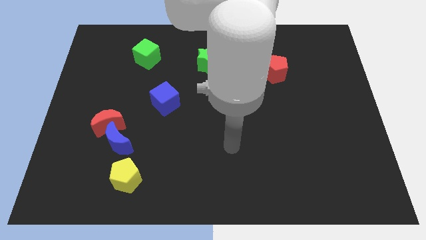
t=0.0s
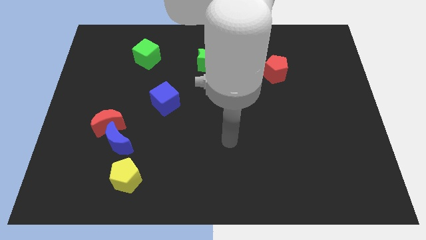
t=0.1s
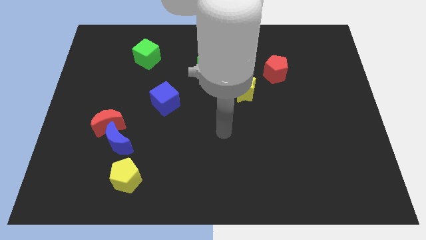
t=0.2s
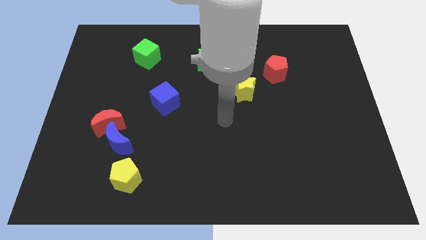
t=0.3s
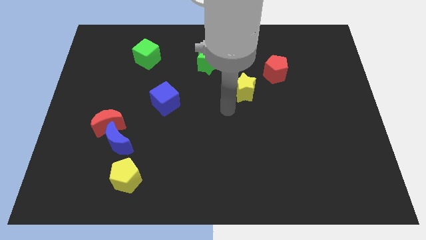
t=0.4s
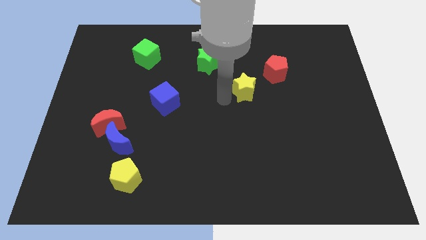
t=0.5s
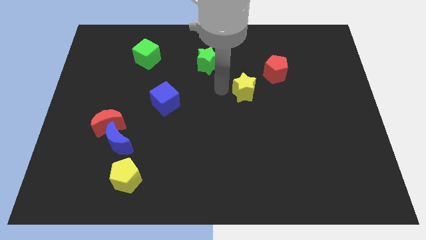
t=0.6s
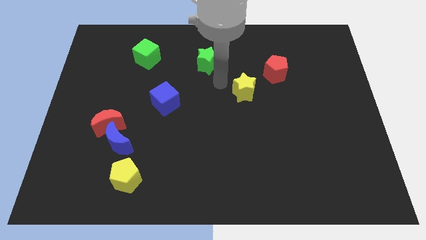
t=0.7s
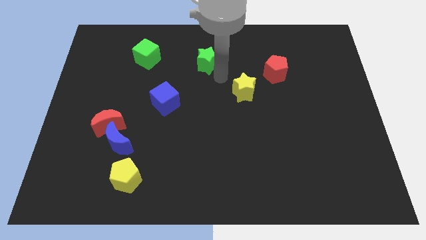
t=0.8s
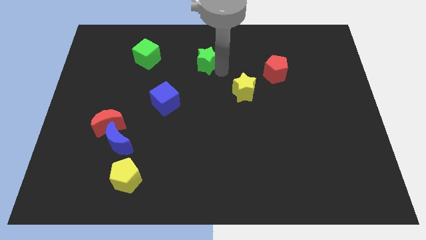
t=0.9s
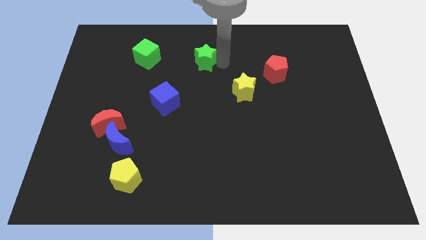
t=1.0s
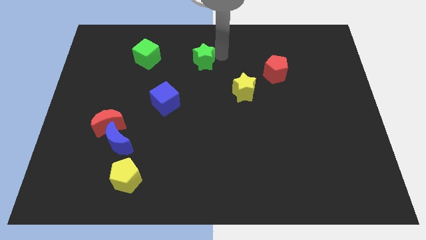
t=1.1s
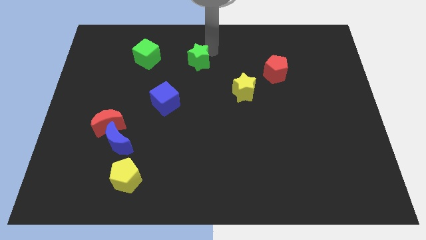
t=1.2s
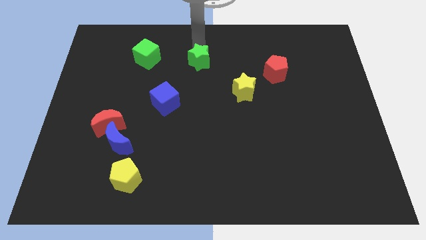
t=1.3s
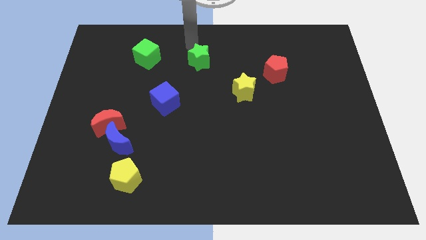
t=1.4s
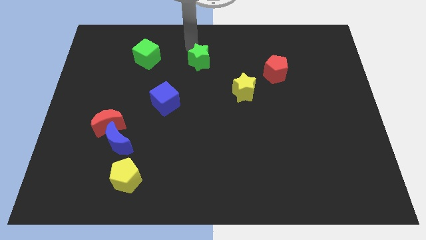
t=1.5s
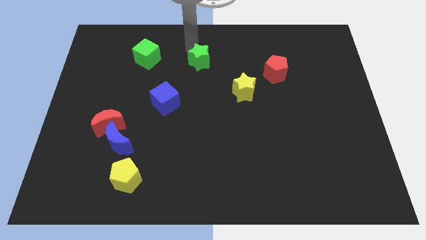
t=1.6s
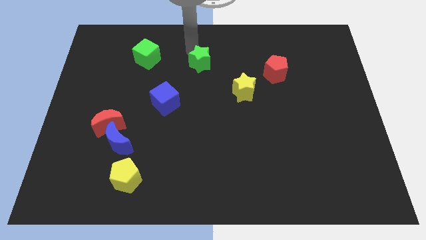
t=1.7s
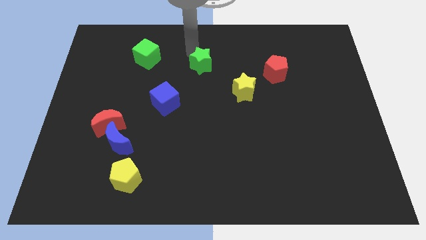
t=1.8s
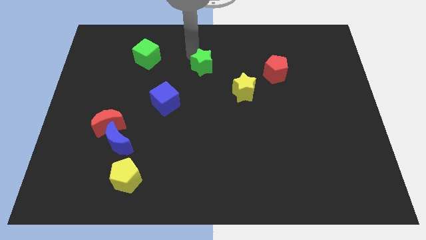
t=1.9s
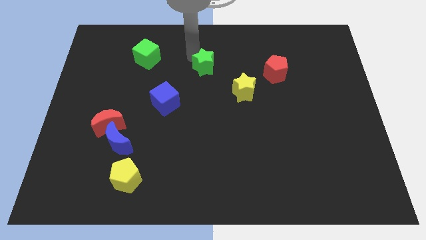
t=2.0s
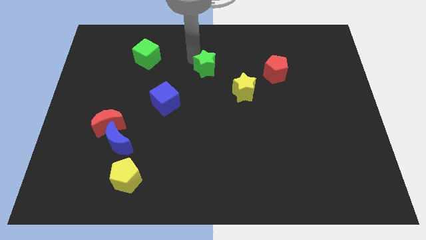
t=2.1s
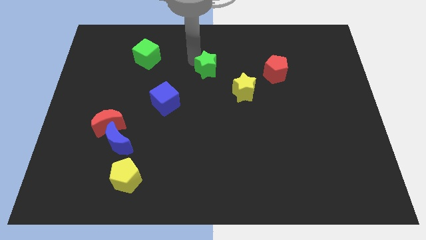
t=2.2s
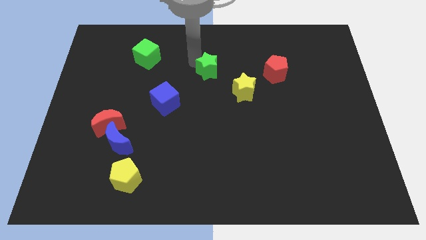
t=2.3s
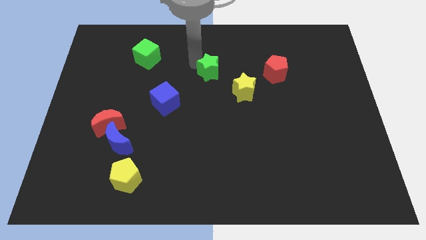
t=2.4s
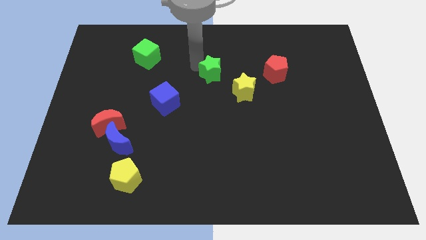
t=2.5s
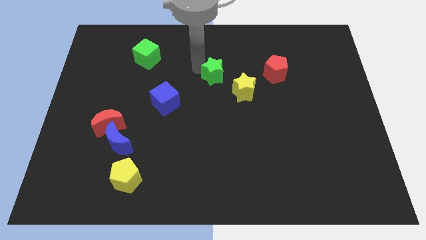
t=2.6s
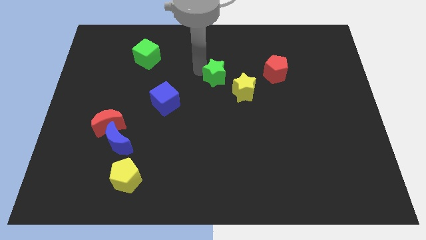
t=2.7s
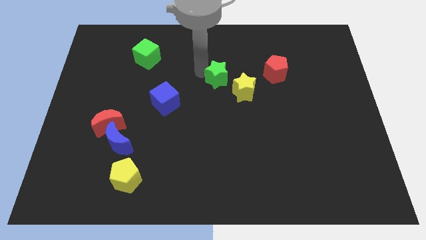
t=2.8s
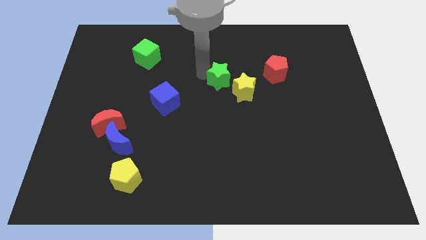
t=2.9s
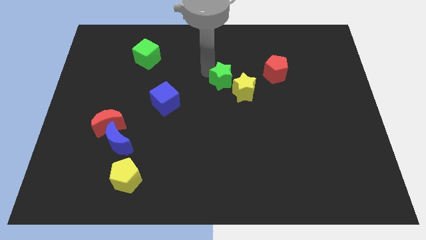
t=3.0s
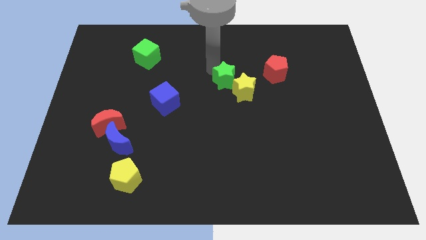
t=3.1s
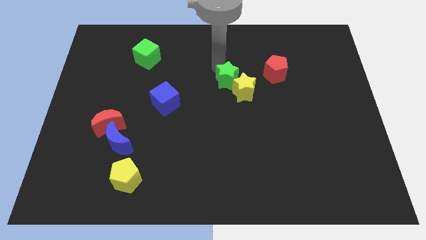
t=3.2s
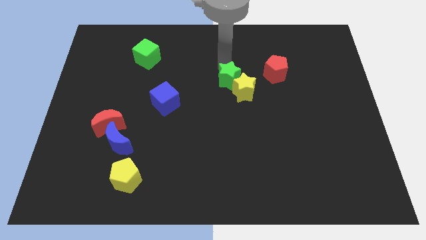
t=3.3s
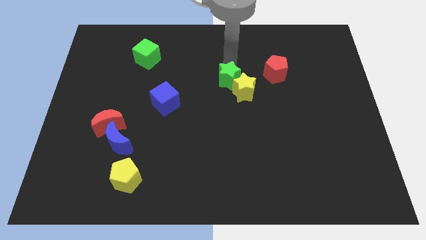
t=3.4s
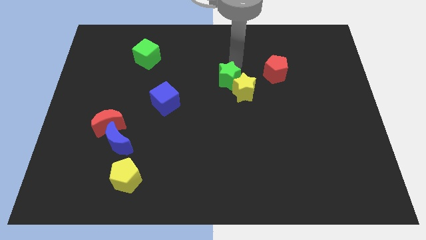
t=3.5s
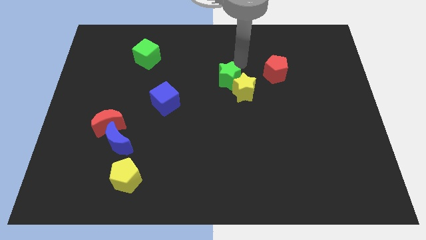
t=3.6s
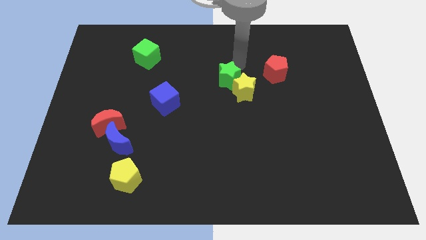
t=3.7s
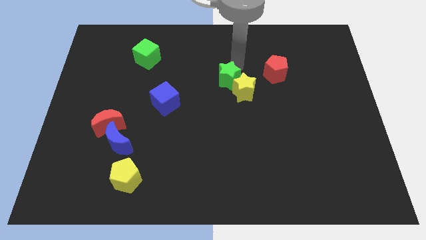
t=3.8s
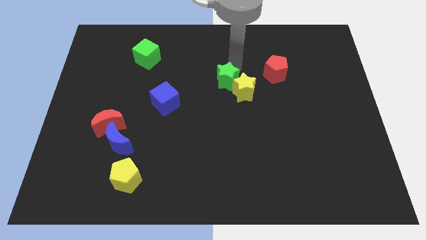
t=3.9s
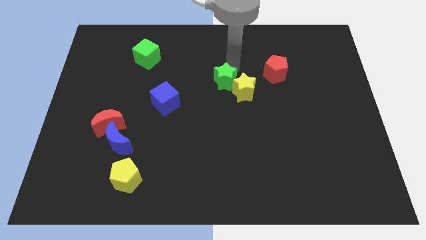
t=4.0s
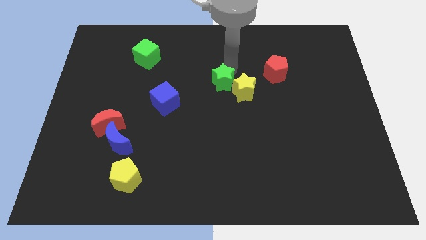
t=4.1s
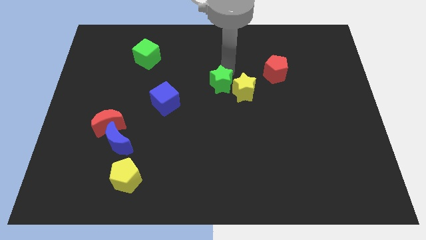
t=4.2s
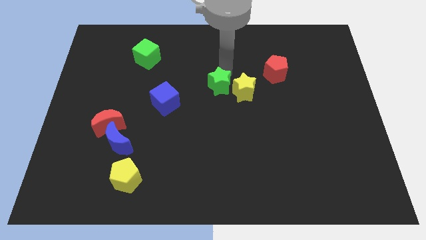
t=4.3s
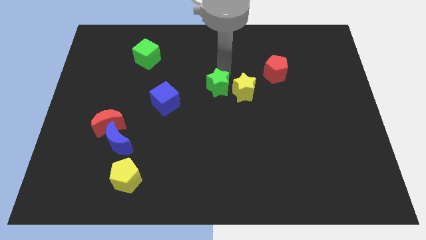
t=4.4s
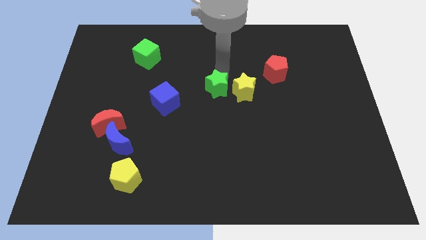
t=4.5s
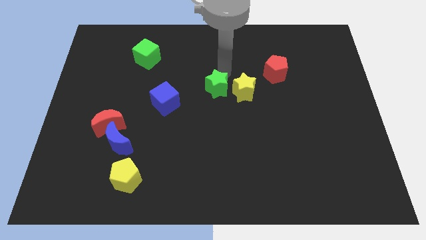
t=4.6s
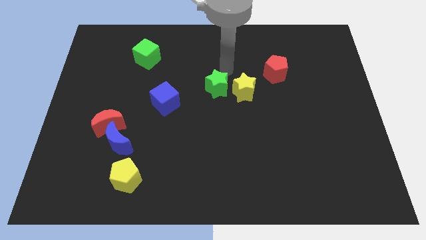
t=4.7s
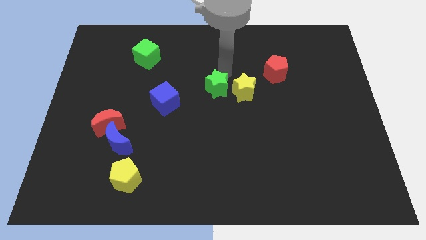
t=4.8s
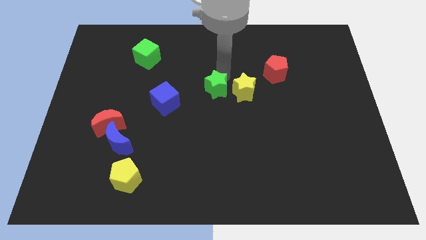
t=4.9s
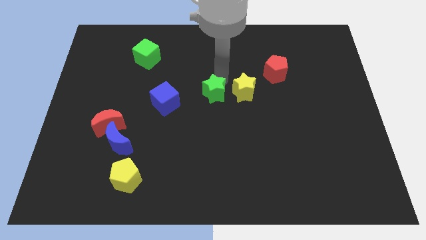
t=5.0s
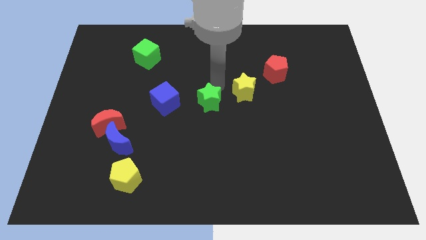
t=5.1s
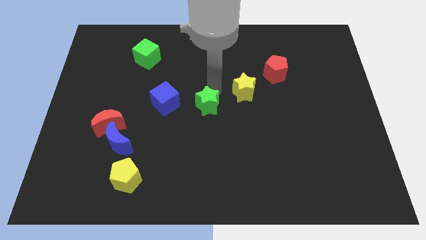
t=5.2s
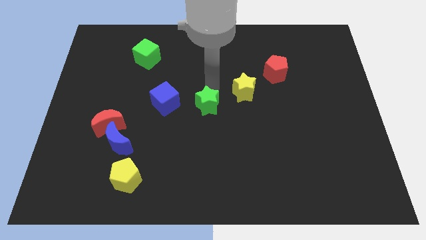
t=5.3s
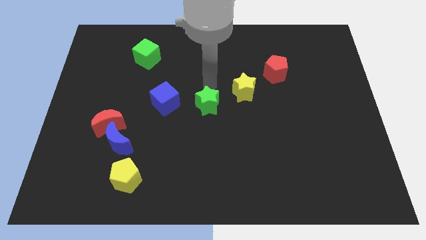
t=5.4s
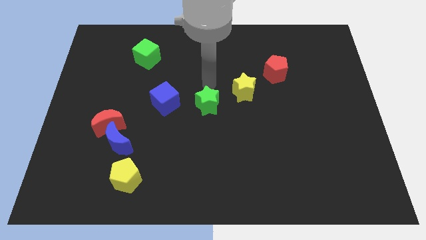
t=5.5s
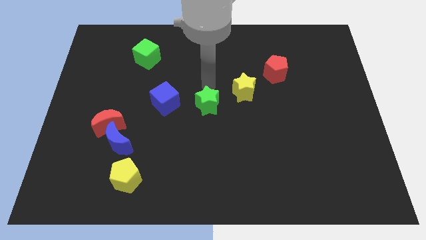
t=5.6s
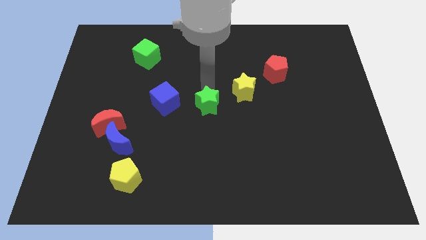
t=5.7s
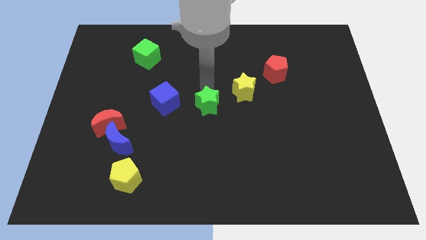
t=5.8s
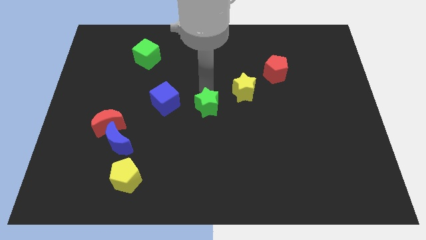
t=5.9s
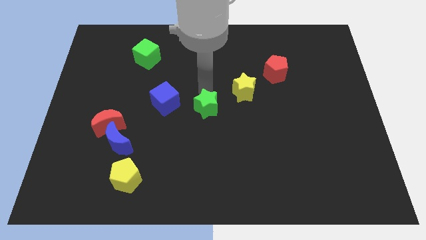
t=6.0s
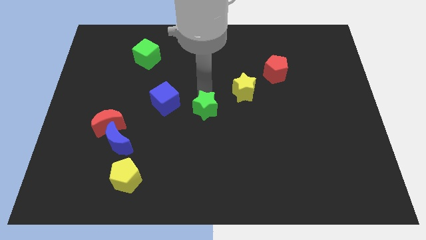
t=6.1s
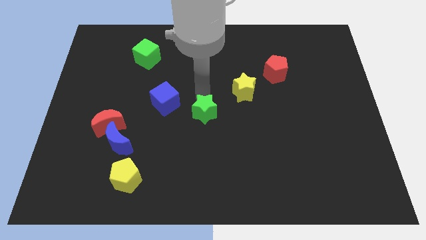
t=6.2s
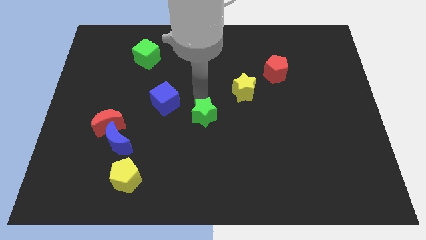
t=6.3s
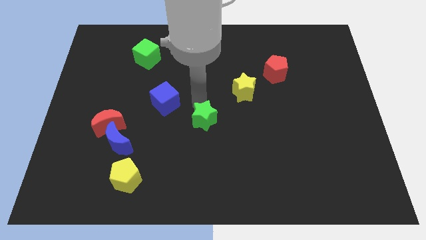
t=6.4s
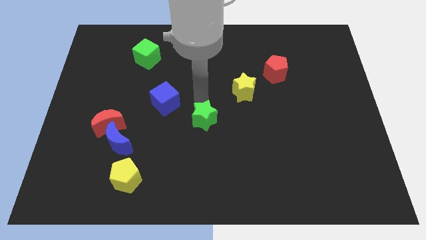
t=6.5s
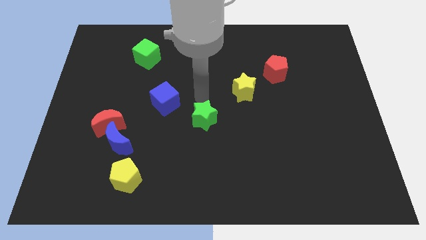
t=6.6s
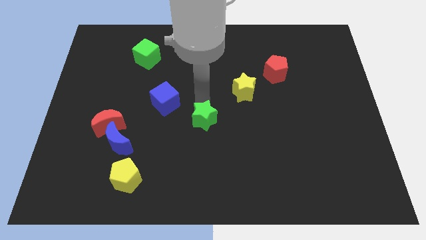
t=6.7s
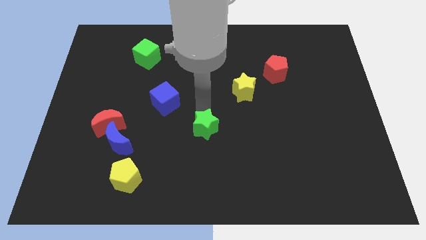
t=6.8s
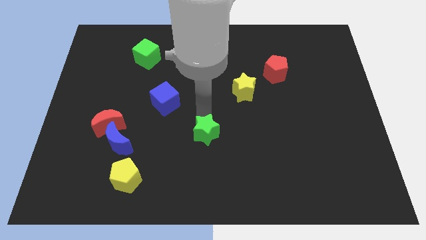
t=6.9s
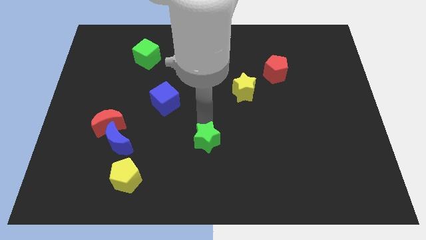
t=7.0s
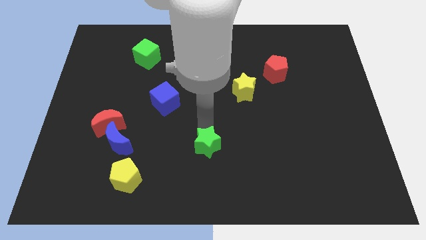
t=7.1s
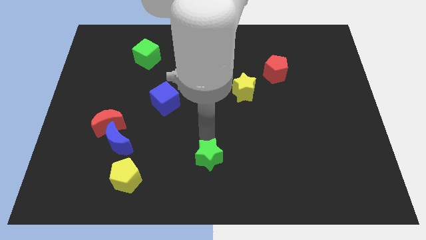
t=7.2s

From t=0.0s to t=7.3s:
put the green star to the bottom side
